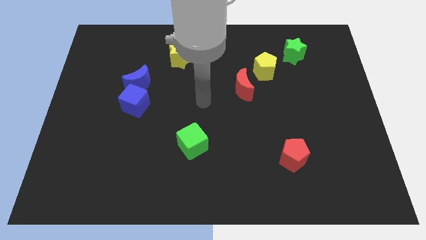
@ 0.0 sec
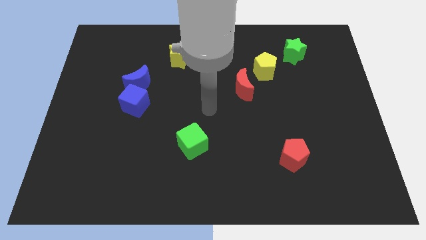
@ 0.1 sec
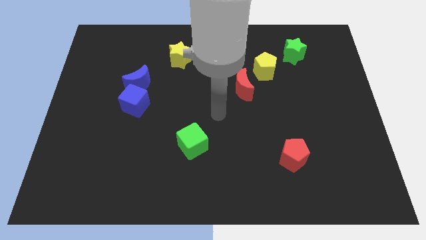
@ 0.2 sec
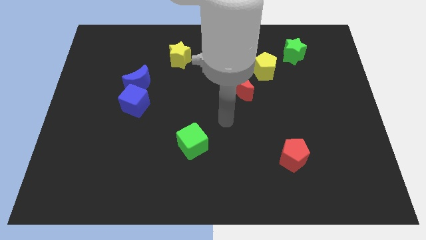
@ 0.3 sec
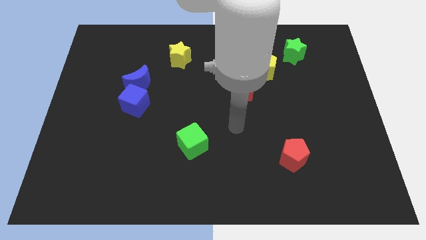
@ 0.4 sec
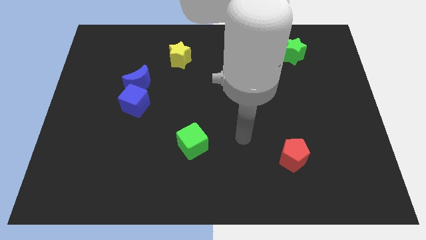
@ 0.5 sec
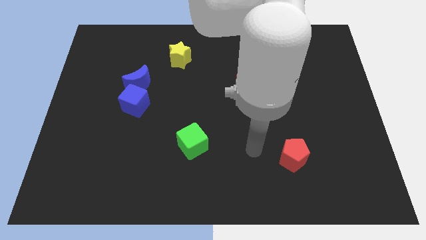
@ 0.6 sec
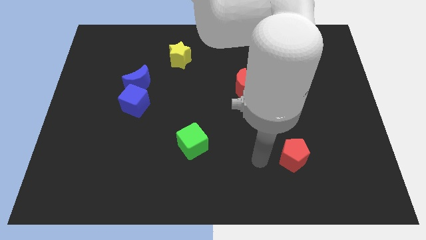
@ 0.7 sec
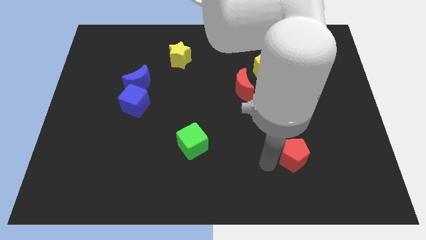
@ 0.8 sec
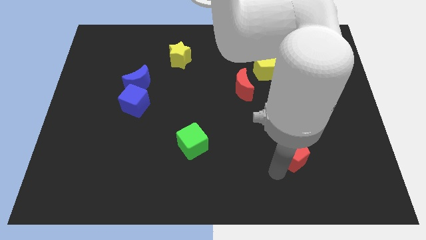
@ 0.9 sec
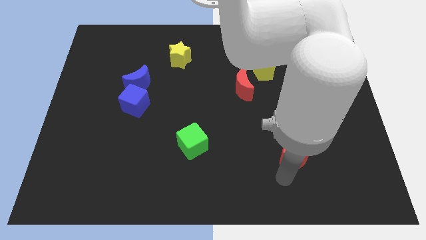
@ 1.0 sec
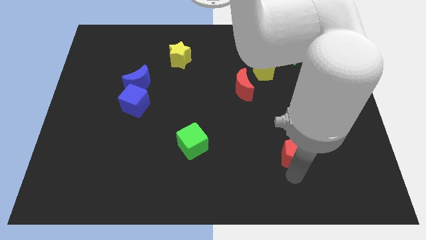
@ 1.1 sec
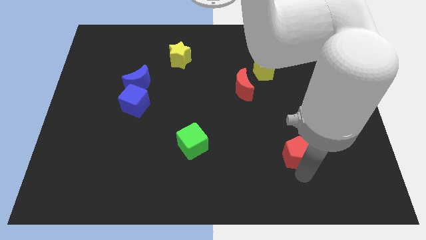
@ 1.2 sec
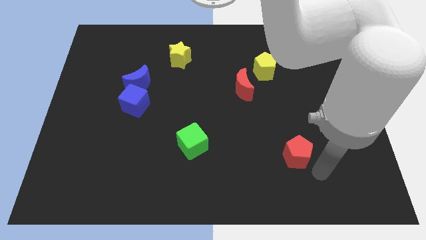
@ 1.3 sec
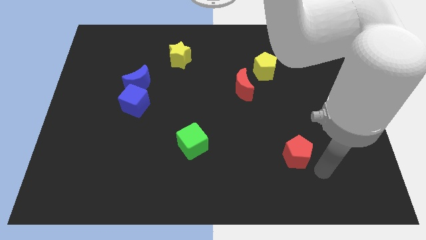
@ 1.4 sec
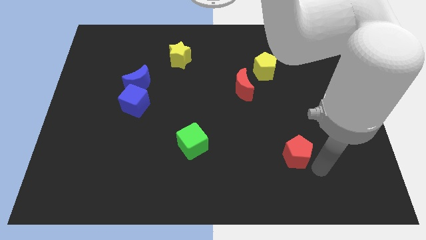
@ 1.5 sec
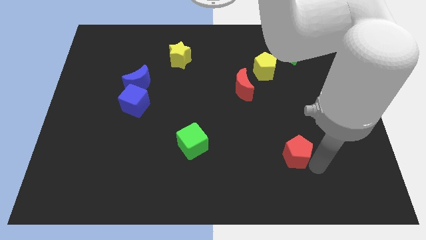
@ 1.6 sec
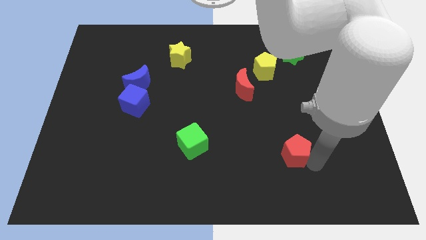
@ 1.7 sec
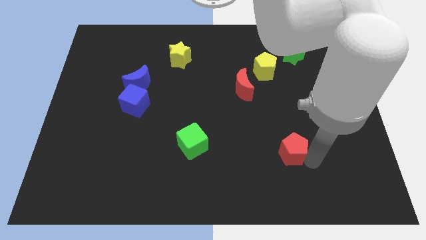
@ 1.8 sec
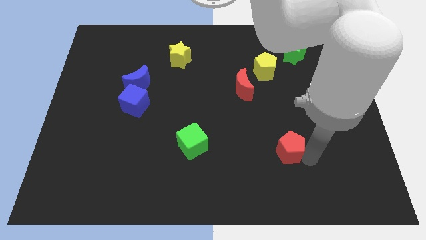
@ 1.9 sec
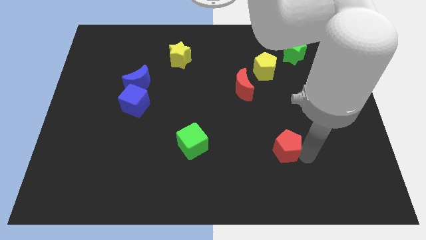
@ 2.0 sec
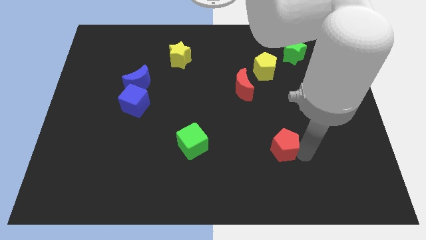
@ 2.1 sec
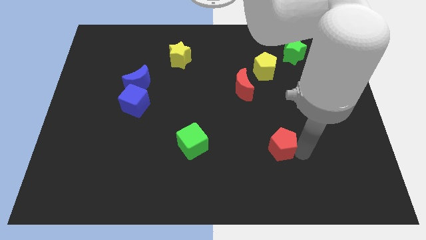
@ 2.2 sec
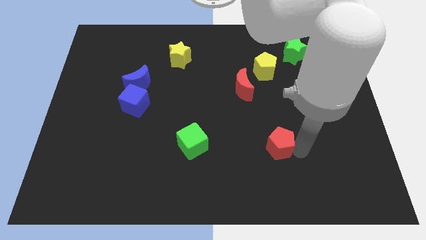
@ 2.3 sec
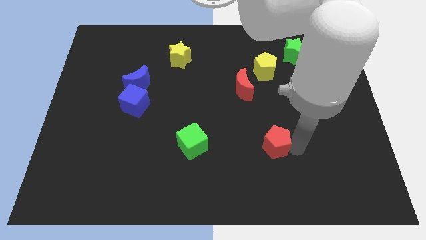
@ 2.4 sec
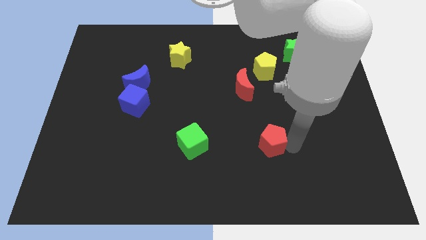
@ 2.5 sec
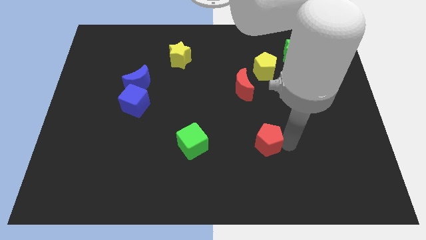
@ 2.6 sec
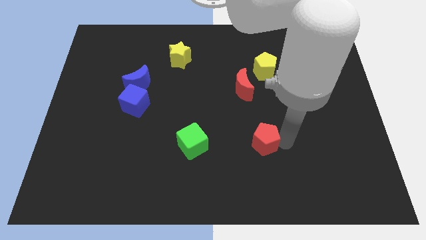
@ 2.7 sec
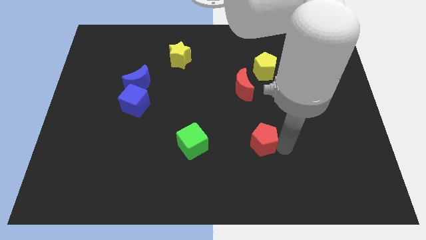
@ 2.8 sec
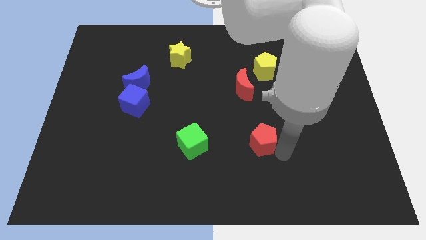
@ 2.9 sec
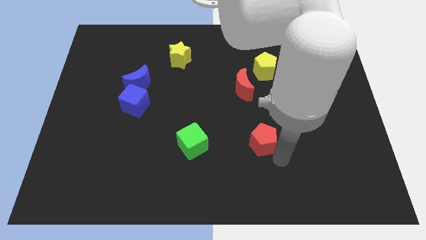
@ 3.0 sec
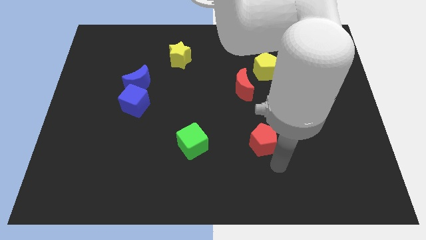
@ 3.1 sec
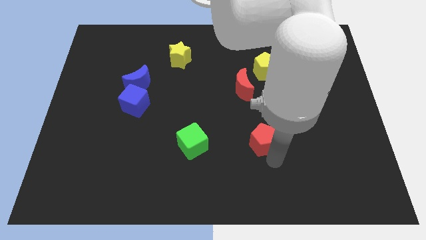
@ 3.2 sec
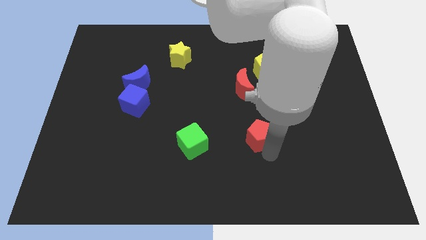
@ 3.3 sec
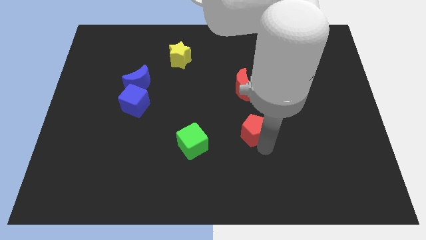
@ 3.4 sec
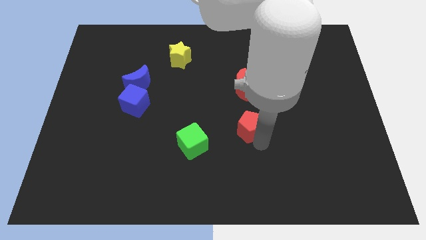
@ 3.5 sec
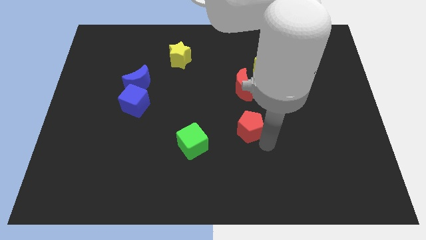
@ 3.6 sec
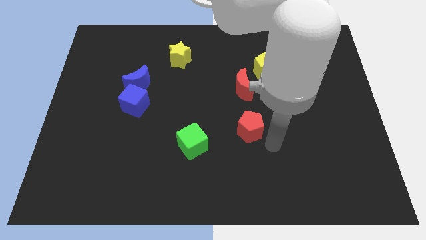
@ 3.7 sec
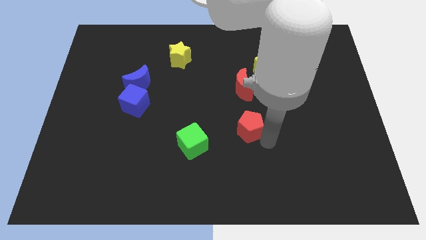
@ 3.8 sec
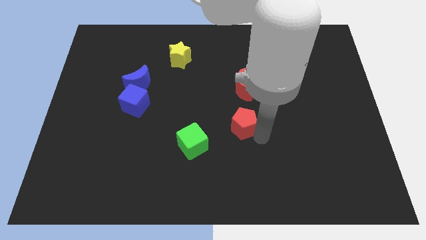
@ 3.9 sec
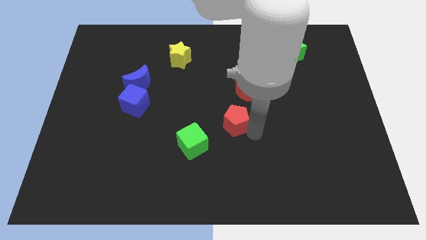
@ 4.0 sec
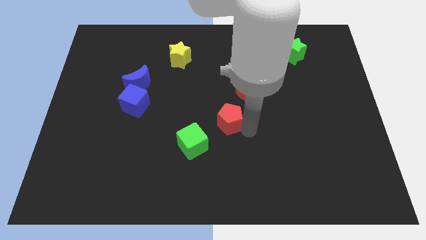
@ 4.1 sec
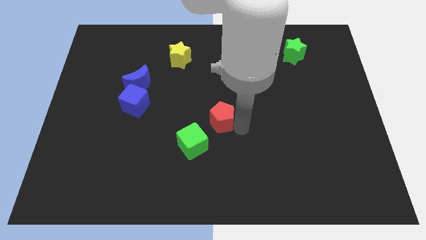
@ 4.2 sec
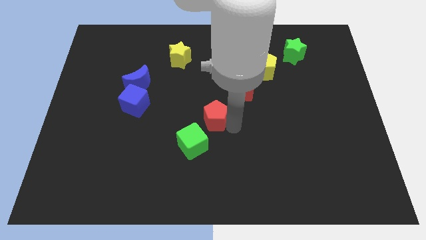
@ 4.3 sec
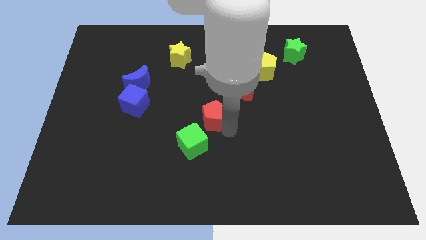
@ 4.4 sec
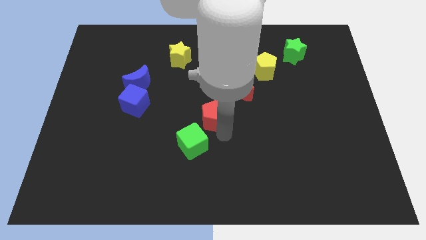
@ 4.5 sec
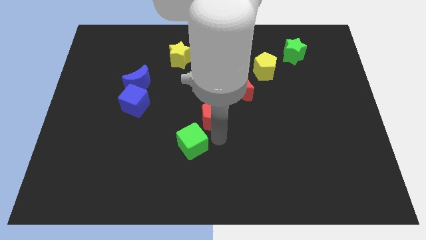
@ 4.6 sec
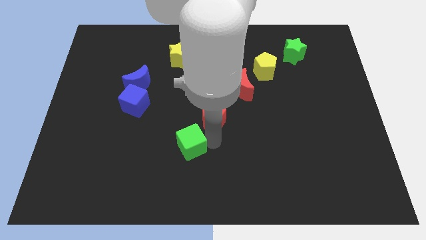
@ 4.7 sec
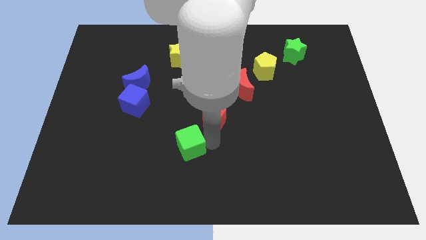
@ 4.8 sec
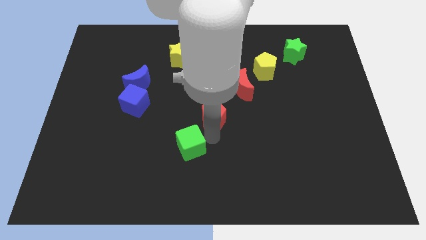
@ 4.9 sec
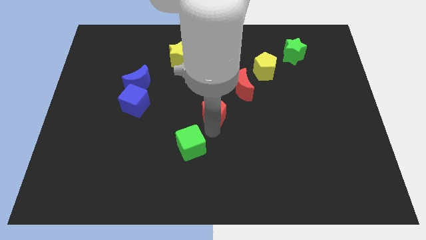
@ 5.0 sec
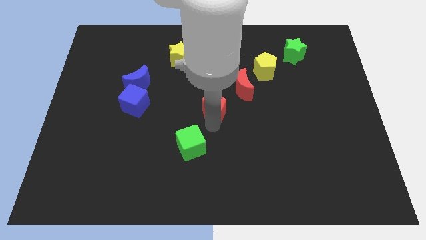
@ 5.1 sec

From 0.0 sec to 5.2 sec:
move the red pentagon upwards and left diagonally

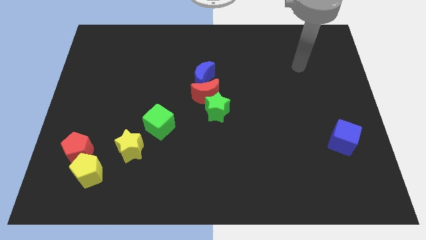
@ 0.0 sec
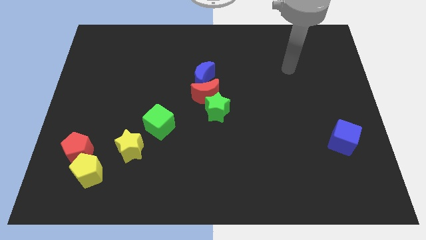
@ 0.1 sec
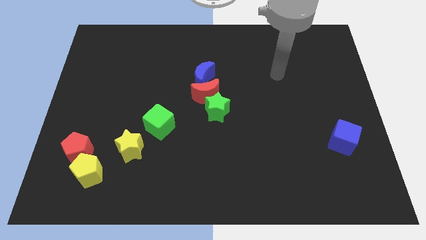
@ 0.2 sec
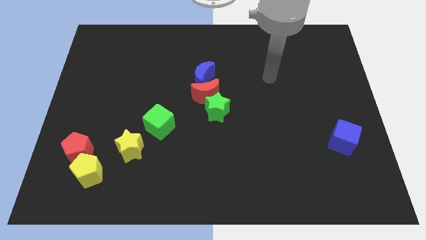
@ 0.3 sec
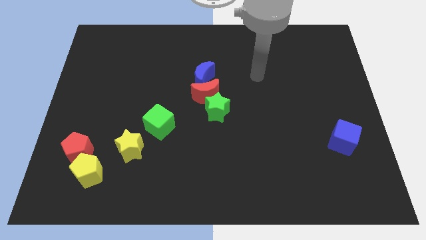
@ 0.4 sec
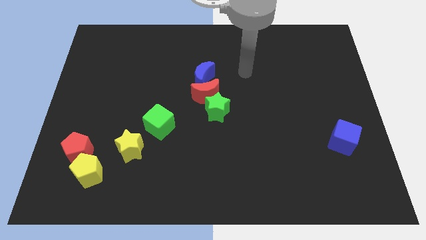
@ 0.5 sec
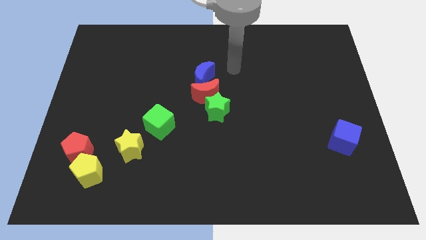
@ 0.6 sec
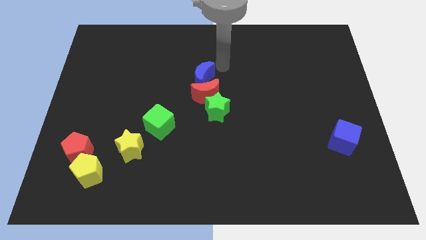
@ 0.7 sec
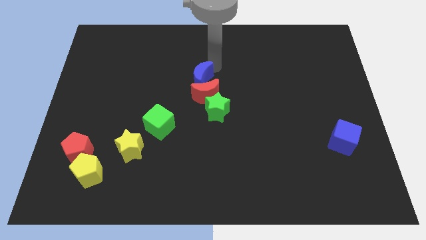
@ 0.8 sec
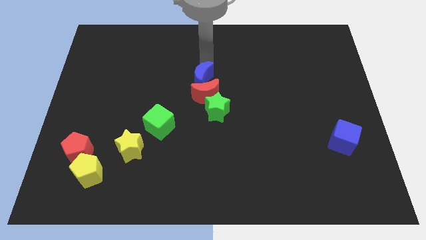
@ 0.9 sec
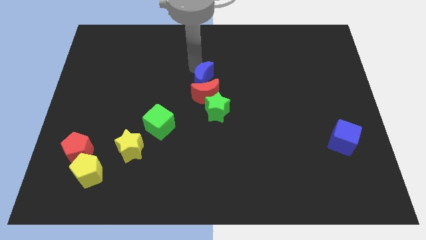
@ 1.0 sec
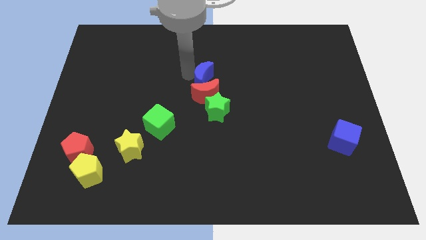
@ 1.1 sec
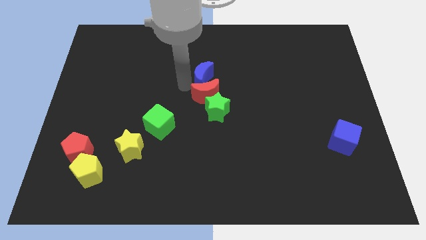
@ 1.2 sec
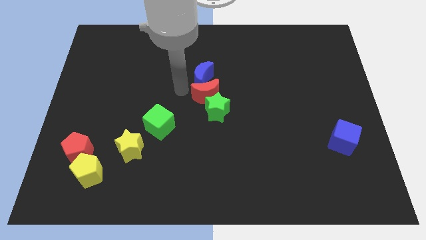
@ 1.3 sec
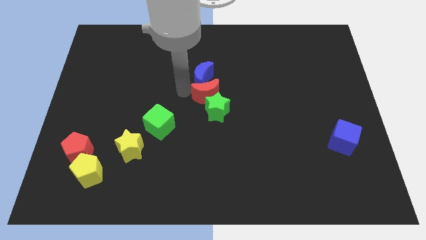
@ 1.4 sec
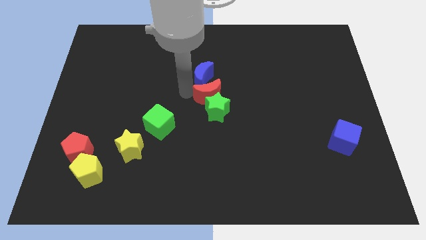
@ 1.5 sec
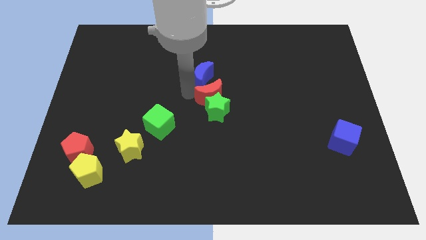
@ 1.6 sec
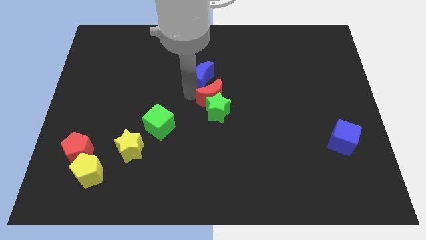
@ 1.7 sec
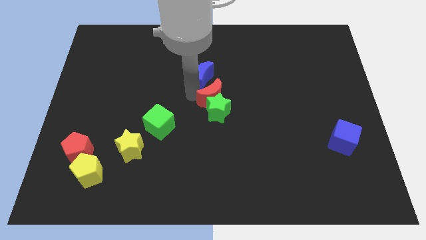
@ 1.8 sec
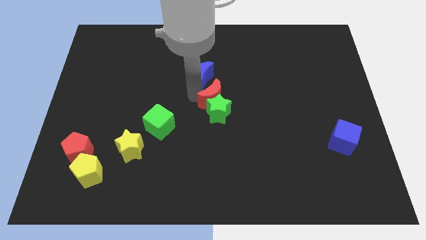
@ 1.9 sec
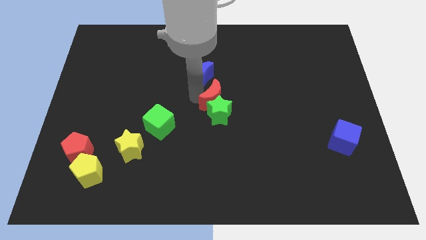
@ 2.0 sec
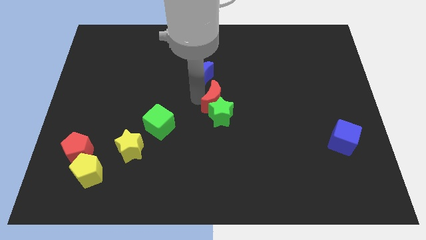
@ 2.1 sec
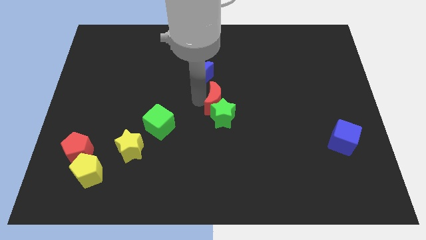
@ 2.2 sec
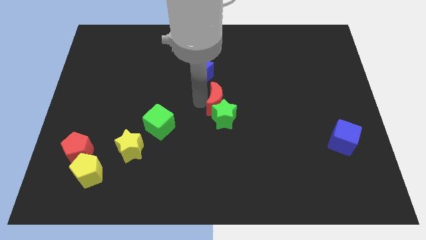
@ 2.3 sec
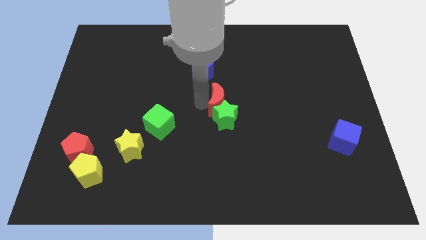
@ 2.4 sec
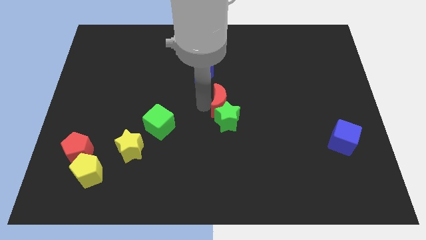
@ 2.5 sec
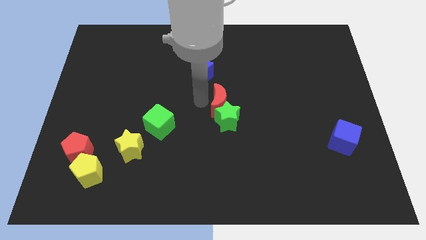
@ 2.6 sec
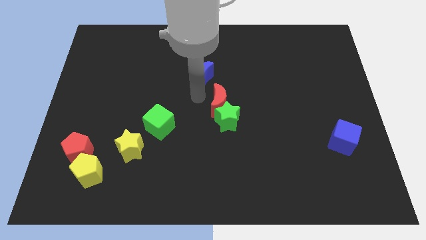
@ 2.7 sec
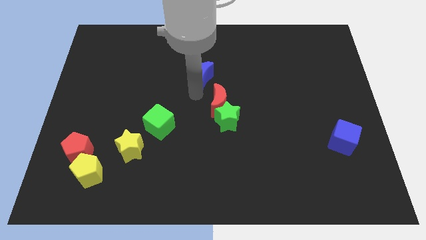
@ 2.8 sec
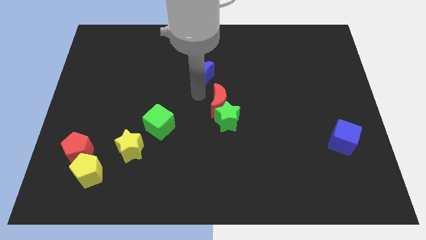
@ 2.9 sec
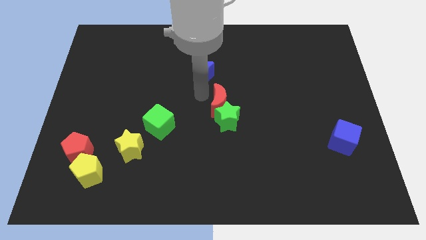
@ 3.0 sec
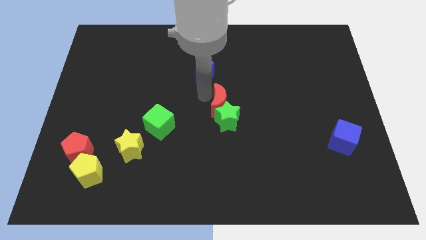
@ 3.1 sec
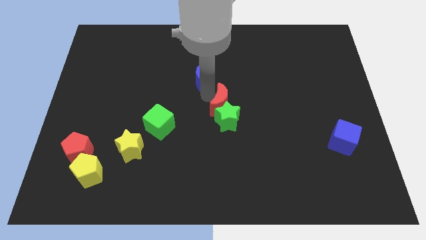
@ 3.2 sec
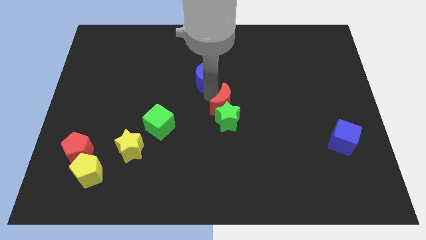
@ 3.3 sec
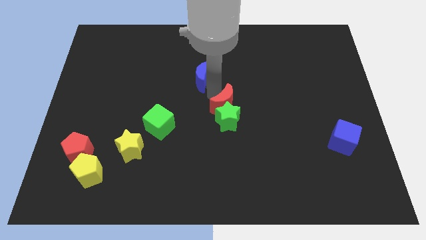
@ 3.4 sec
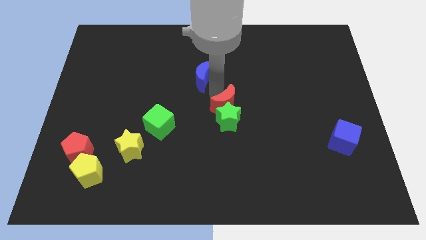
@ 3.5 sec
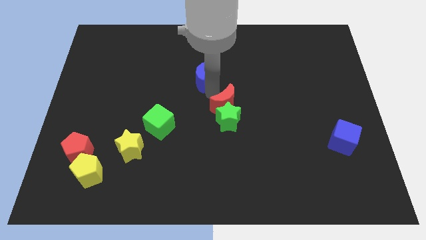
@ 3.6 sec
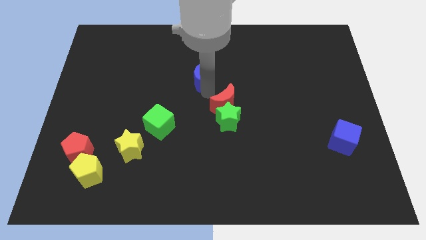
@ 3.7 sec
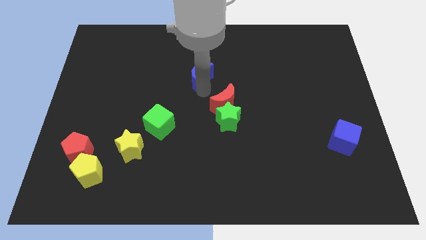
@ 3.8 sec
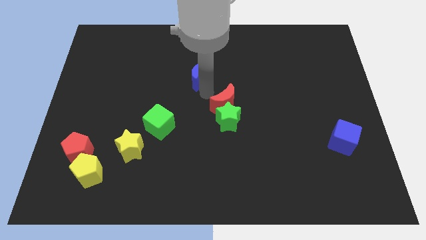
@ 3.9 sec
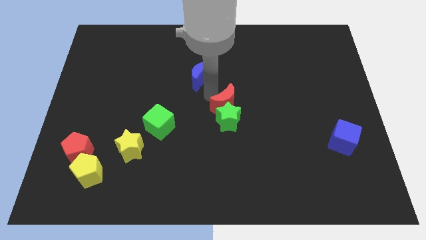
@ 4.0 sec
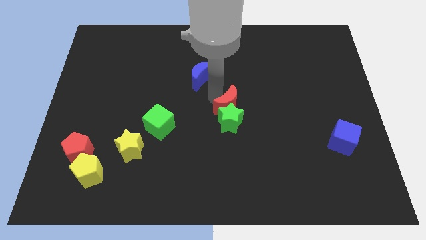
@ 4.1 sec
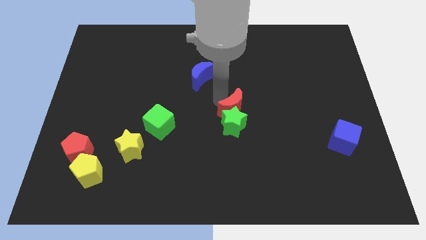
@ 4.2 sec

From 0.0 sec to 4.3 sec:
move the red moon a little down and to the right
